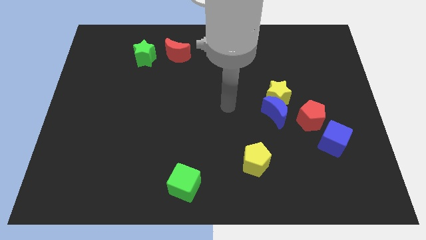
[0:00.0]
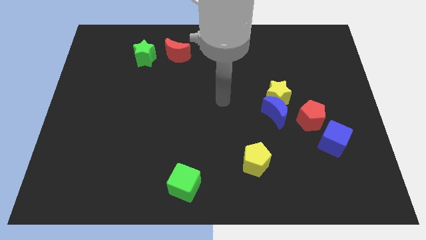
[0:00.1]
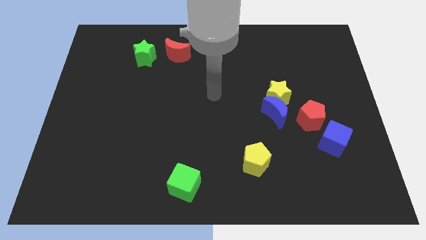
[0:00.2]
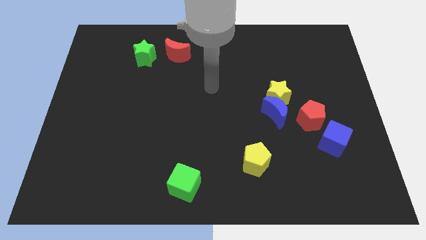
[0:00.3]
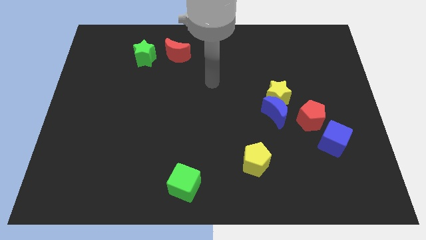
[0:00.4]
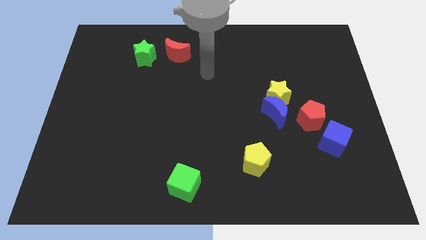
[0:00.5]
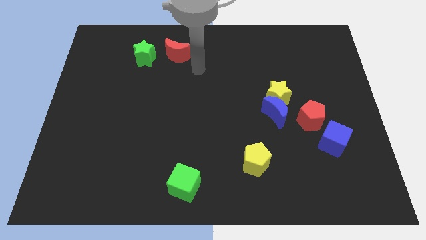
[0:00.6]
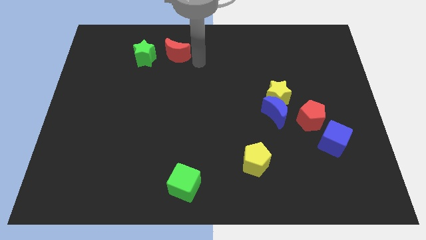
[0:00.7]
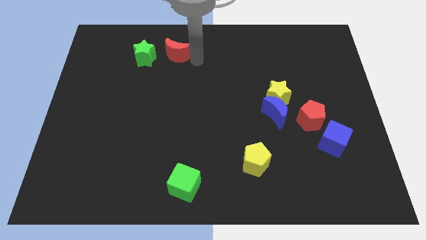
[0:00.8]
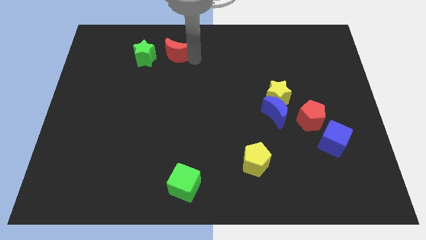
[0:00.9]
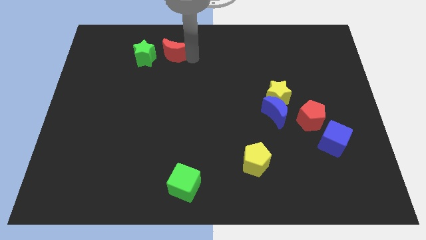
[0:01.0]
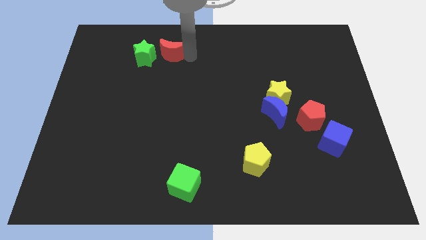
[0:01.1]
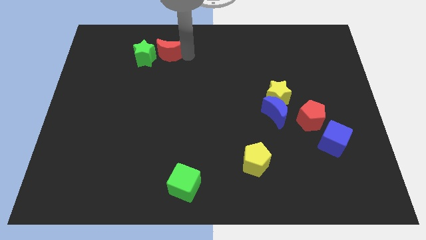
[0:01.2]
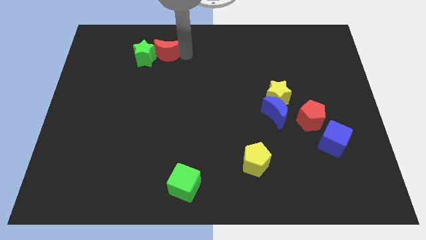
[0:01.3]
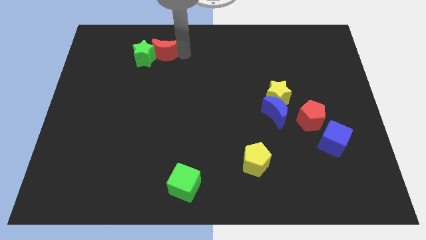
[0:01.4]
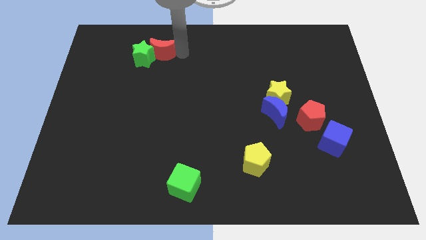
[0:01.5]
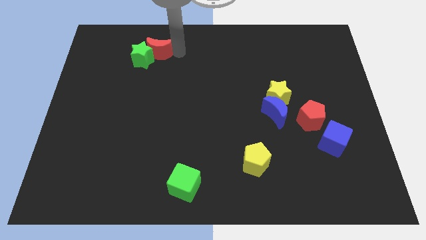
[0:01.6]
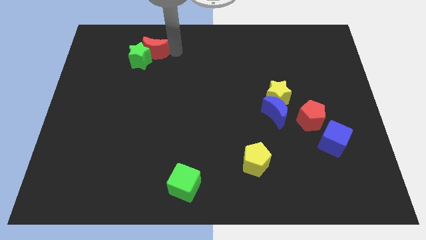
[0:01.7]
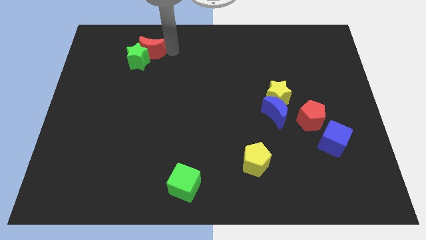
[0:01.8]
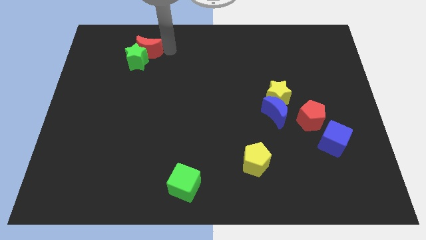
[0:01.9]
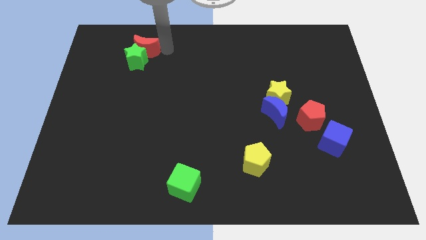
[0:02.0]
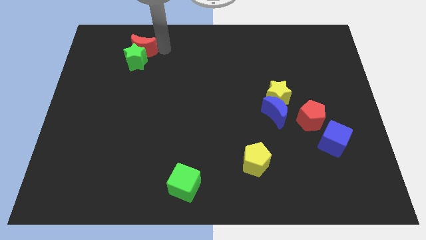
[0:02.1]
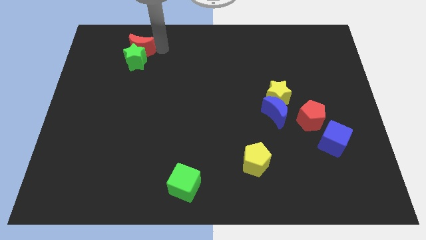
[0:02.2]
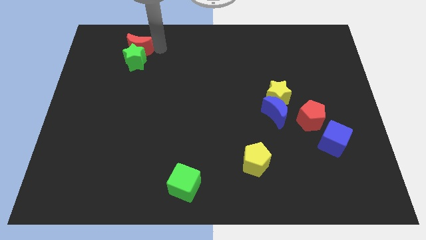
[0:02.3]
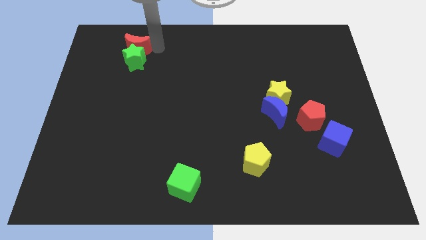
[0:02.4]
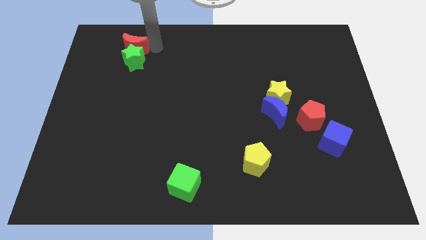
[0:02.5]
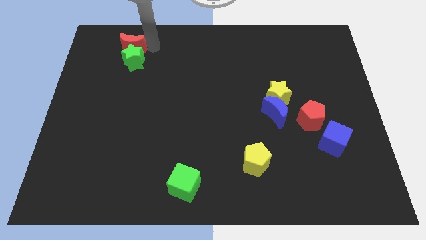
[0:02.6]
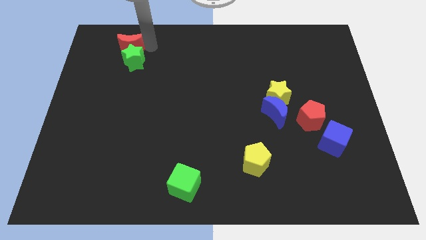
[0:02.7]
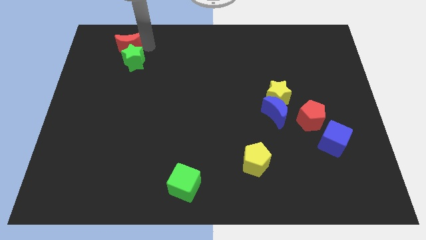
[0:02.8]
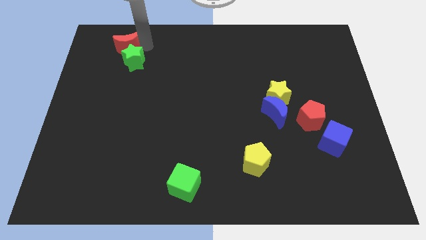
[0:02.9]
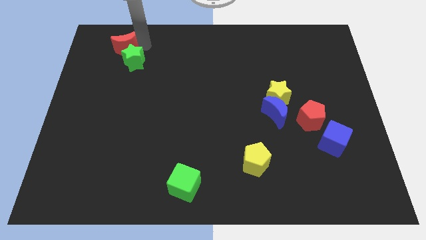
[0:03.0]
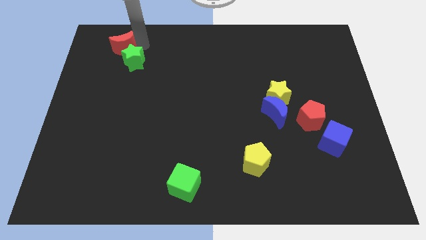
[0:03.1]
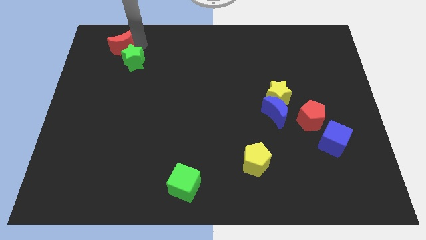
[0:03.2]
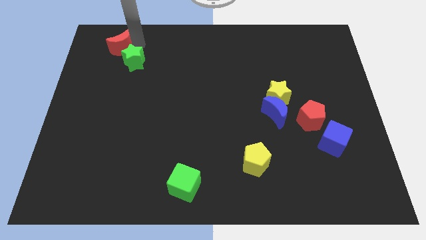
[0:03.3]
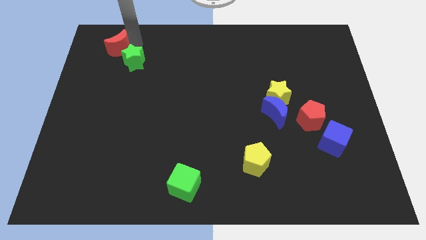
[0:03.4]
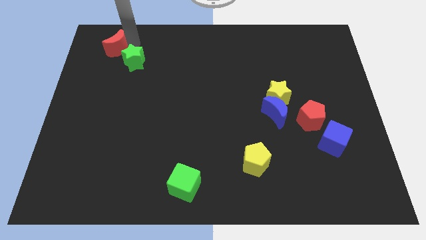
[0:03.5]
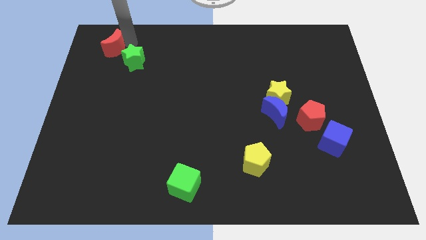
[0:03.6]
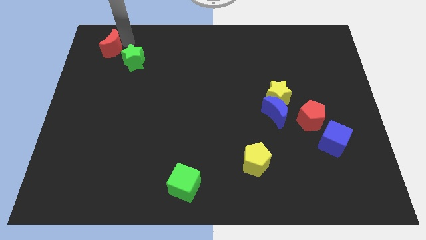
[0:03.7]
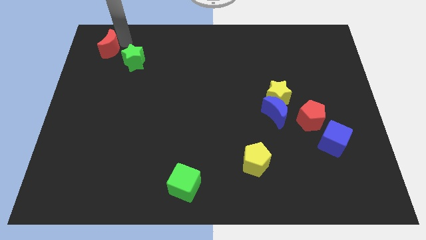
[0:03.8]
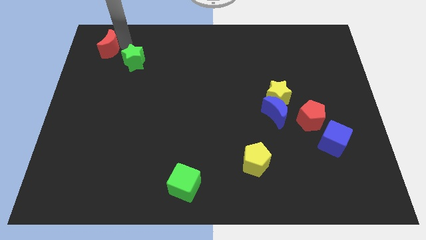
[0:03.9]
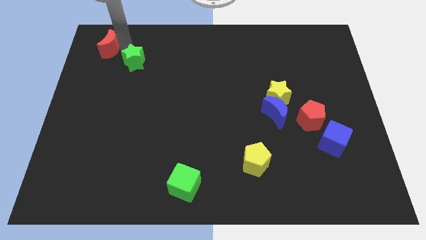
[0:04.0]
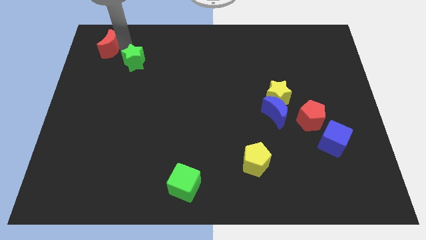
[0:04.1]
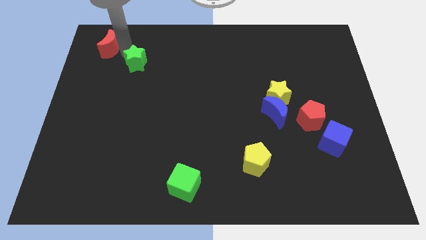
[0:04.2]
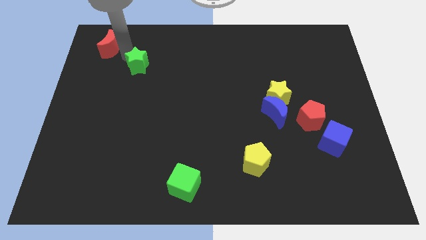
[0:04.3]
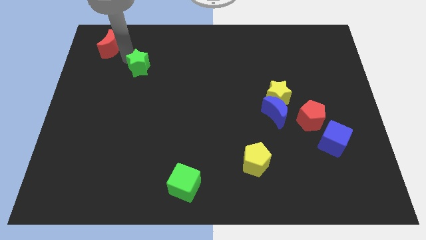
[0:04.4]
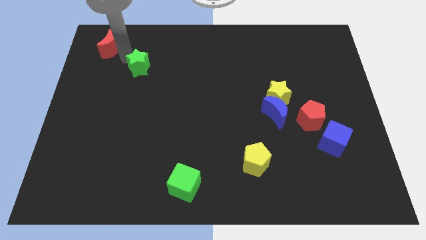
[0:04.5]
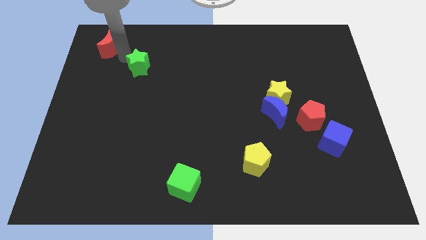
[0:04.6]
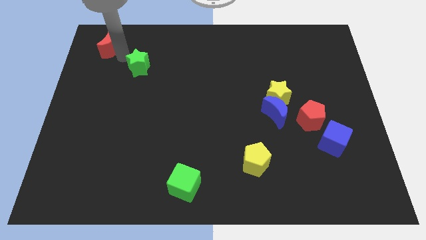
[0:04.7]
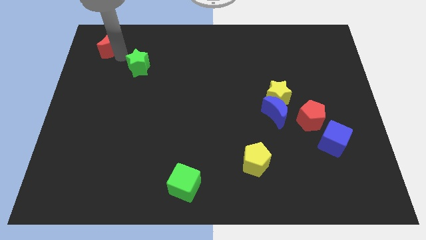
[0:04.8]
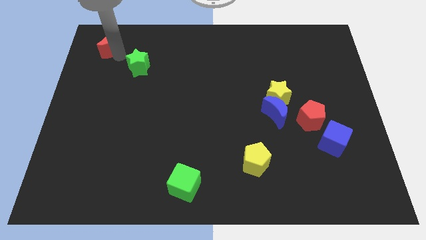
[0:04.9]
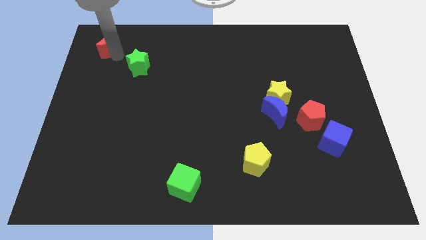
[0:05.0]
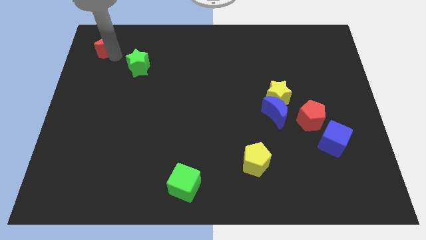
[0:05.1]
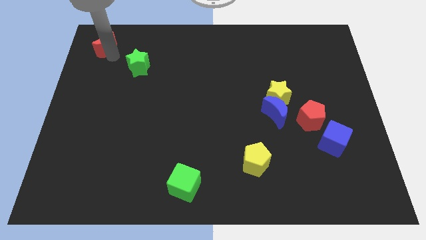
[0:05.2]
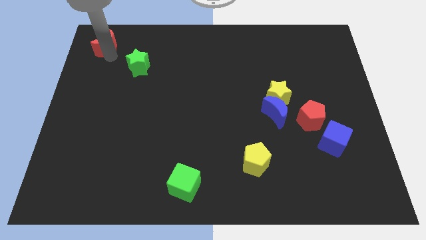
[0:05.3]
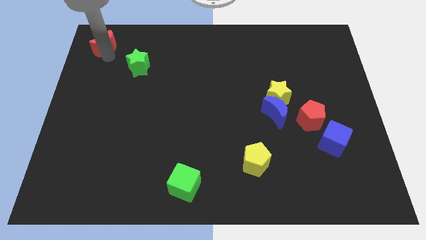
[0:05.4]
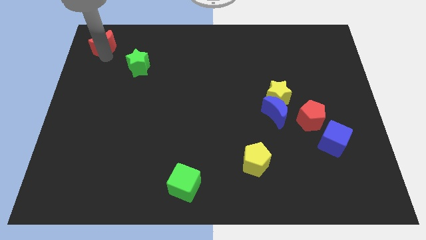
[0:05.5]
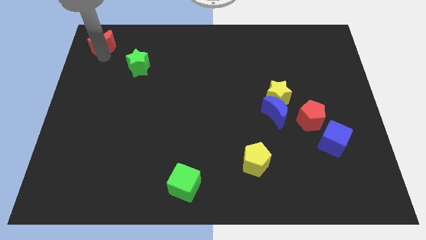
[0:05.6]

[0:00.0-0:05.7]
push the red moon to the top left corner
